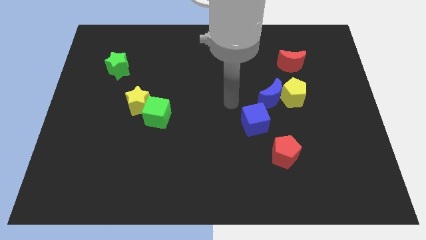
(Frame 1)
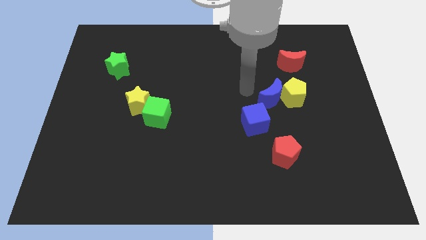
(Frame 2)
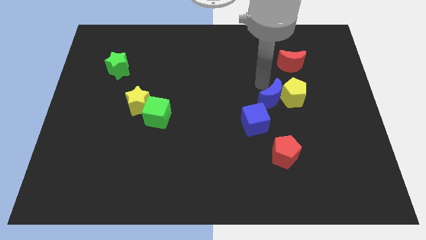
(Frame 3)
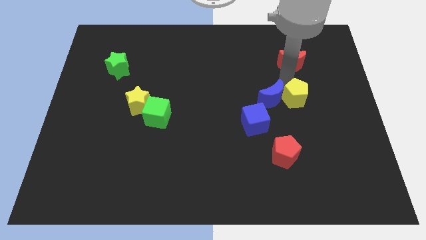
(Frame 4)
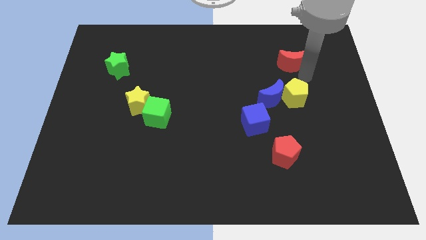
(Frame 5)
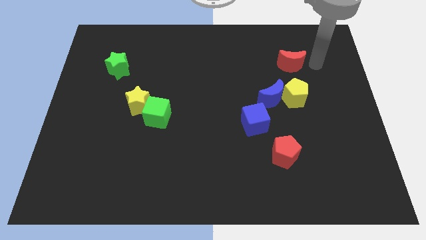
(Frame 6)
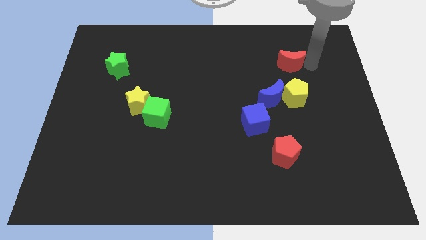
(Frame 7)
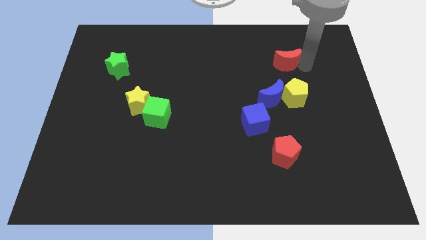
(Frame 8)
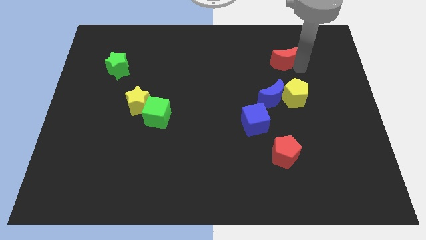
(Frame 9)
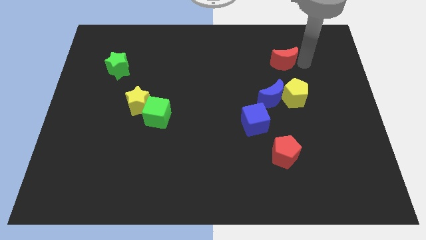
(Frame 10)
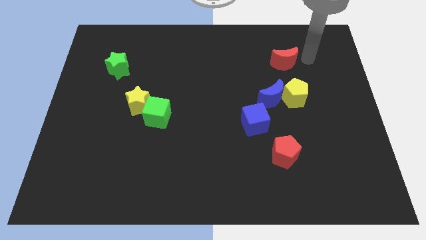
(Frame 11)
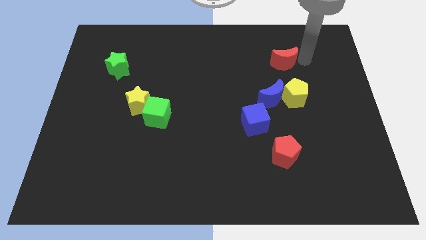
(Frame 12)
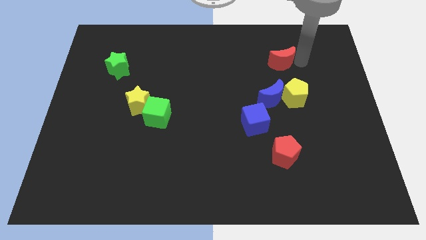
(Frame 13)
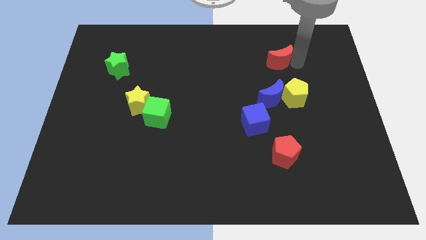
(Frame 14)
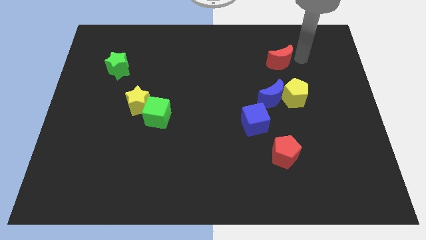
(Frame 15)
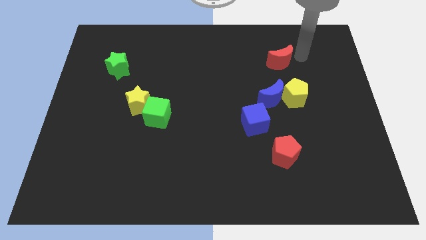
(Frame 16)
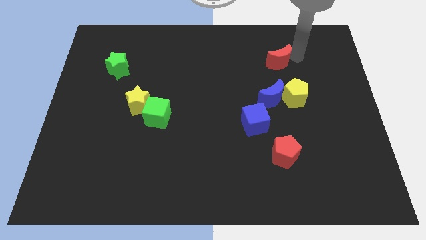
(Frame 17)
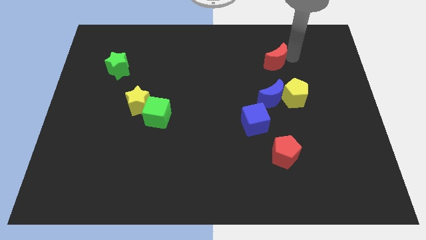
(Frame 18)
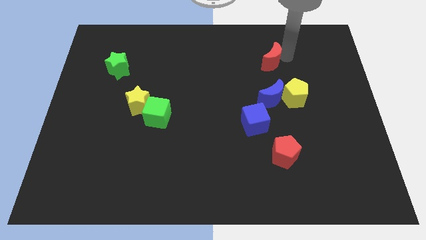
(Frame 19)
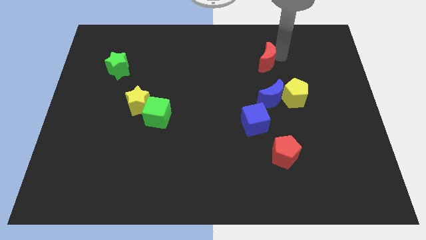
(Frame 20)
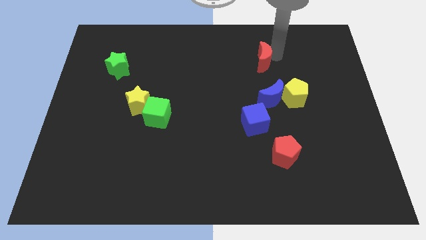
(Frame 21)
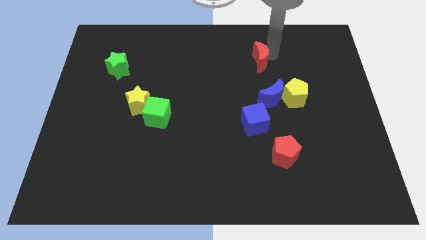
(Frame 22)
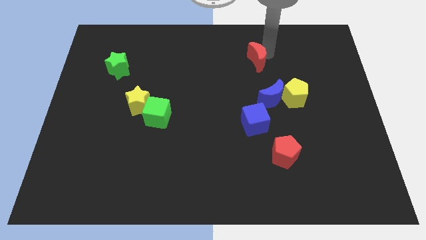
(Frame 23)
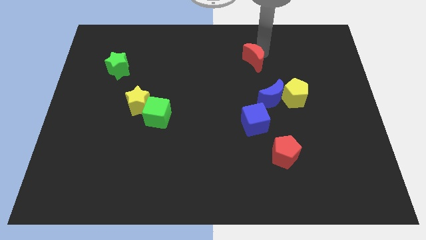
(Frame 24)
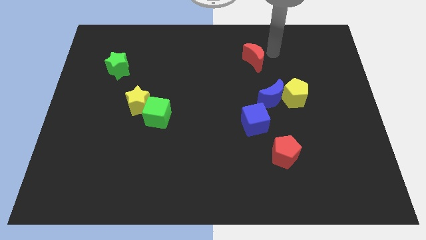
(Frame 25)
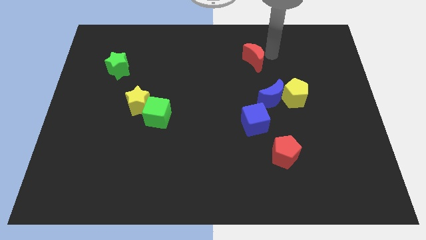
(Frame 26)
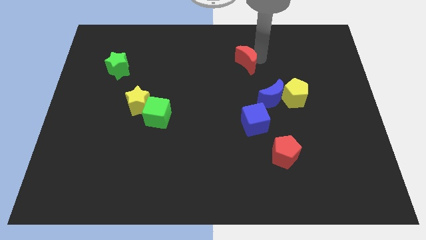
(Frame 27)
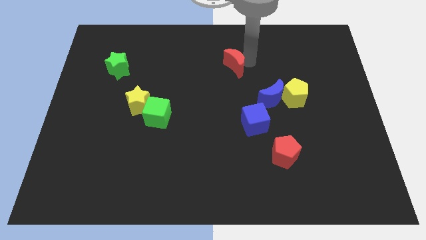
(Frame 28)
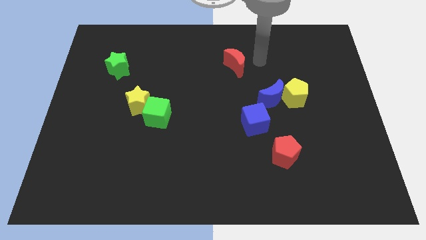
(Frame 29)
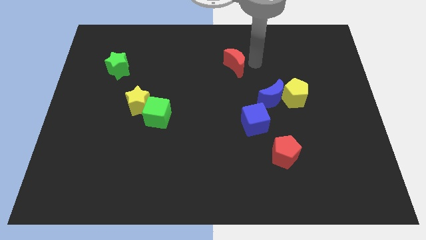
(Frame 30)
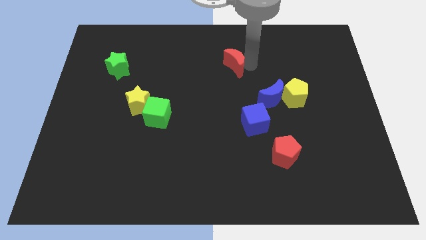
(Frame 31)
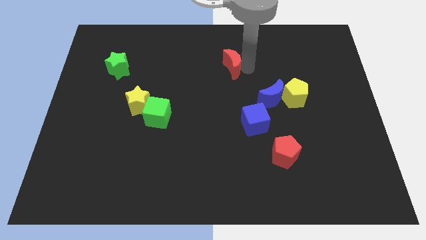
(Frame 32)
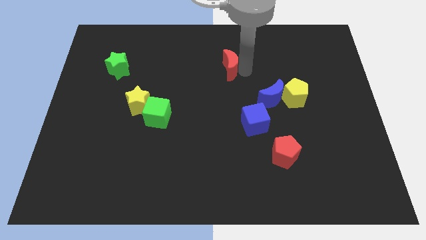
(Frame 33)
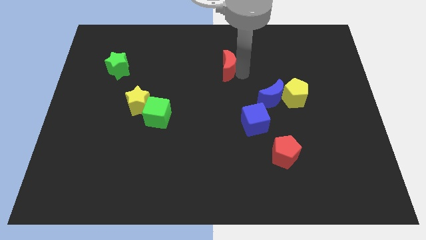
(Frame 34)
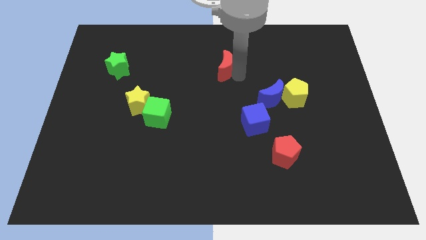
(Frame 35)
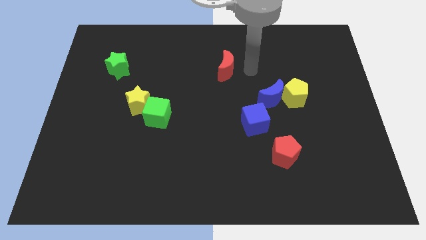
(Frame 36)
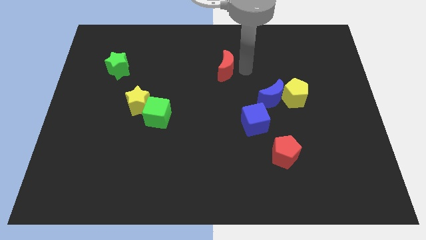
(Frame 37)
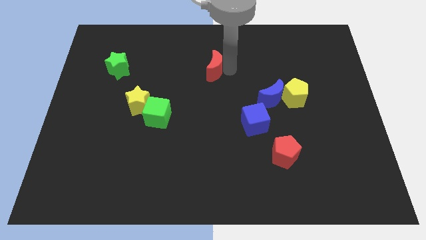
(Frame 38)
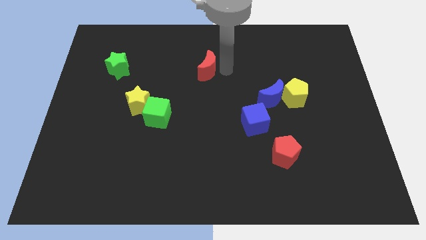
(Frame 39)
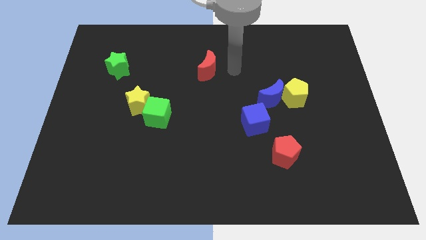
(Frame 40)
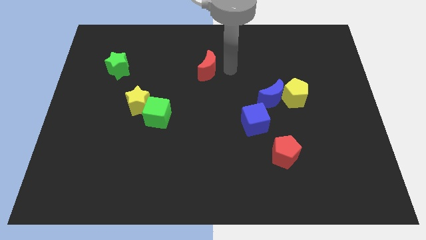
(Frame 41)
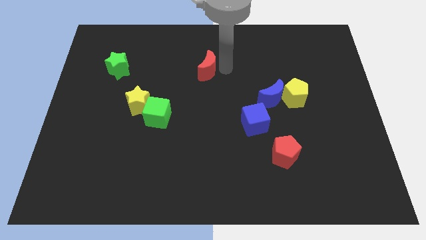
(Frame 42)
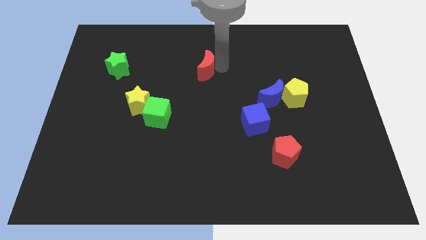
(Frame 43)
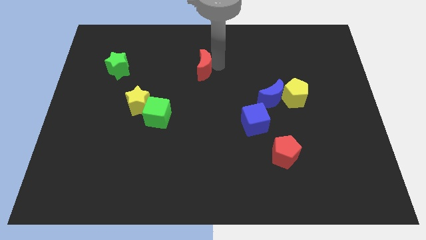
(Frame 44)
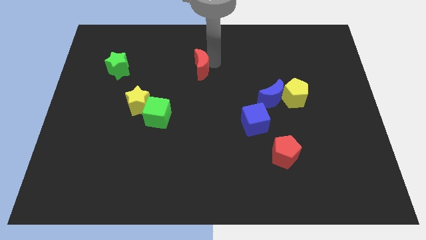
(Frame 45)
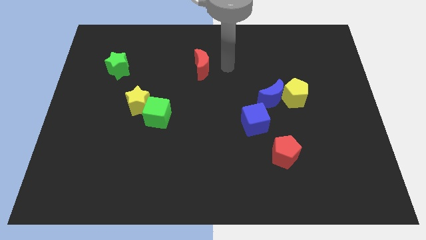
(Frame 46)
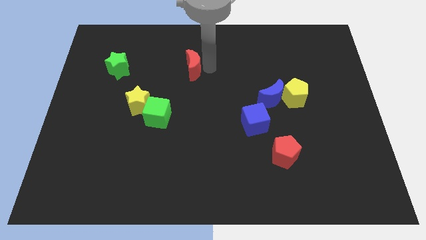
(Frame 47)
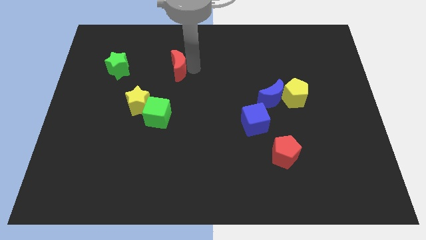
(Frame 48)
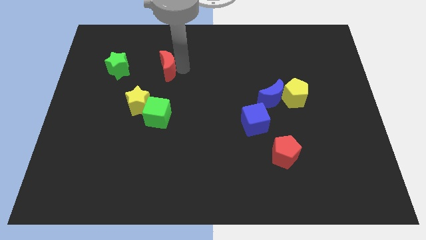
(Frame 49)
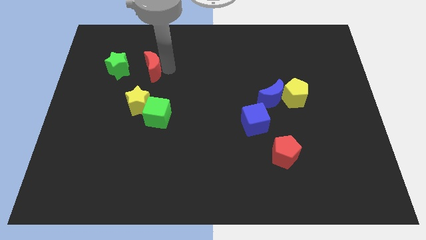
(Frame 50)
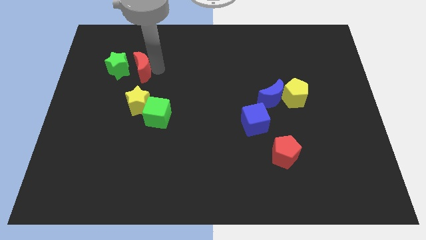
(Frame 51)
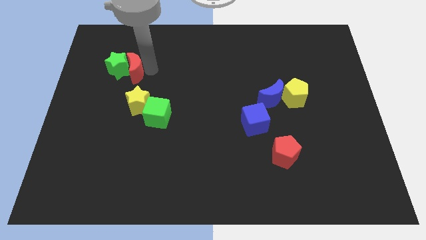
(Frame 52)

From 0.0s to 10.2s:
put the red moon to the green star

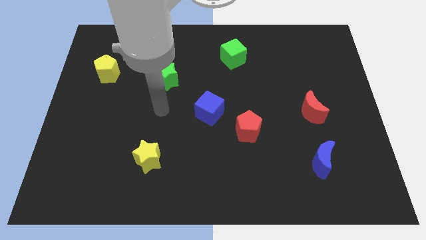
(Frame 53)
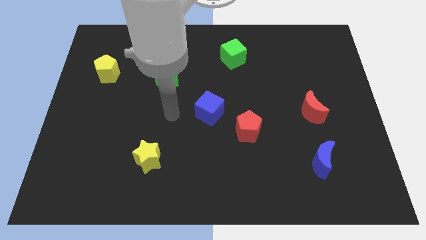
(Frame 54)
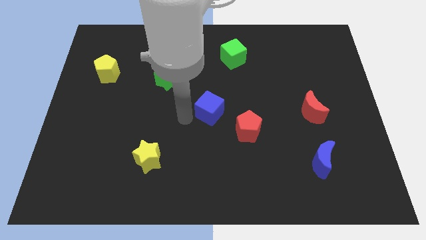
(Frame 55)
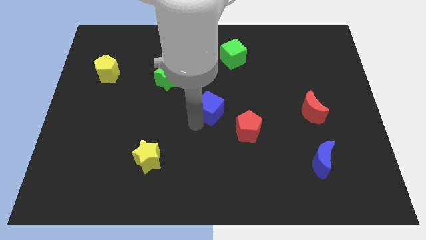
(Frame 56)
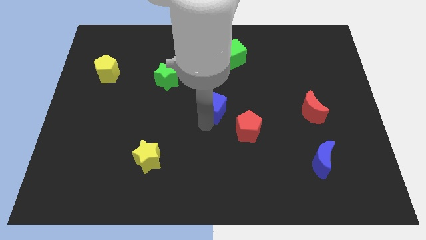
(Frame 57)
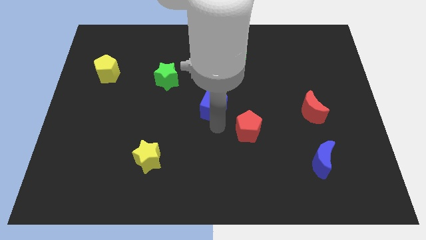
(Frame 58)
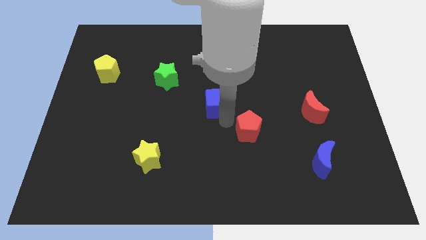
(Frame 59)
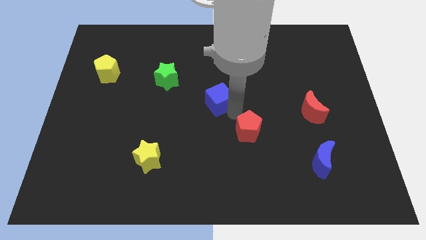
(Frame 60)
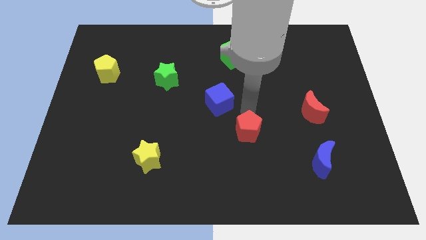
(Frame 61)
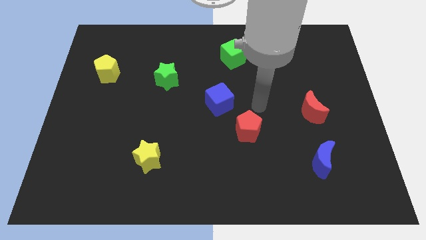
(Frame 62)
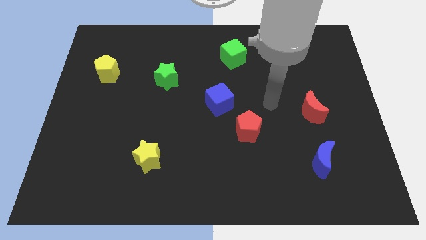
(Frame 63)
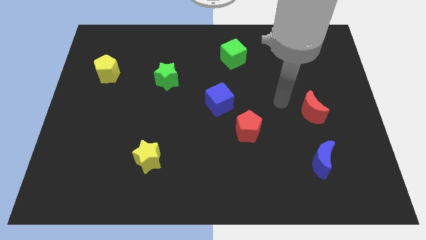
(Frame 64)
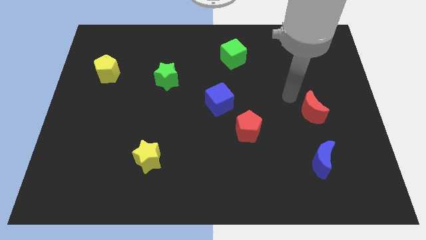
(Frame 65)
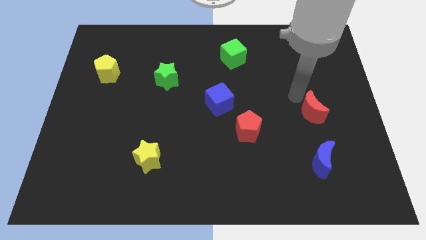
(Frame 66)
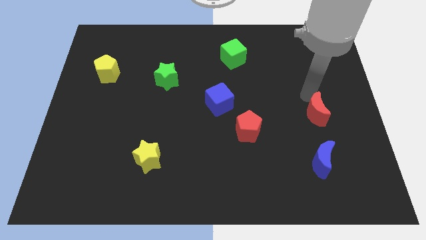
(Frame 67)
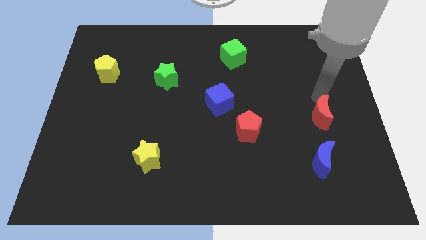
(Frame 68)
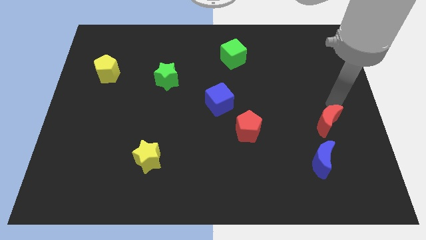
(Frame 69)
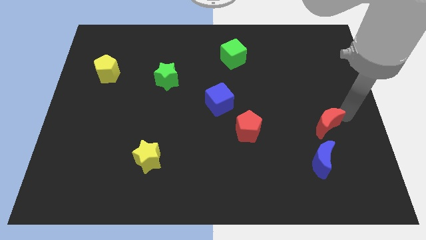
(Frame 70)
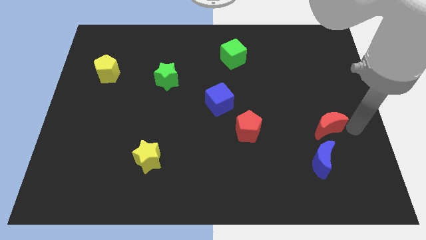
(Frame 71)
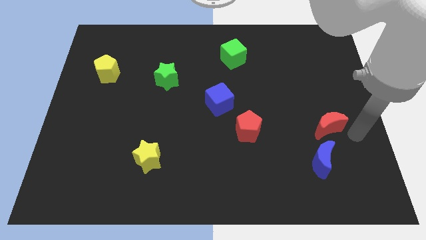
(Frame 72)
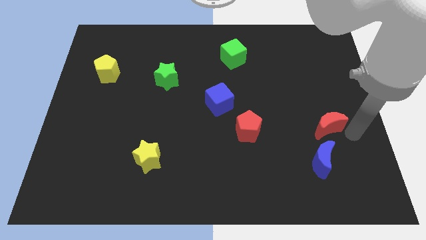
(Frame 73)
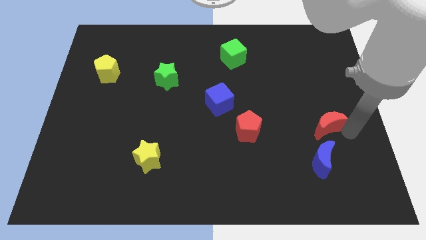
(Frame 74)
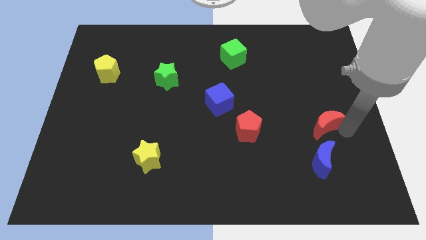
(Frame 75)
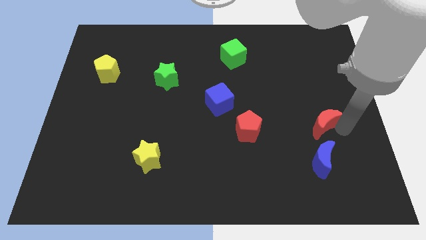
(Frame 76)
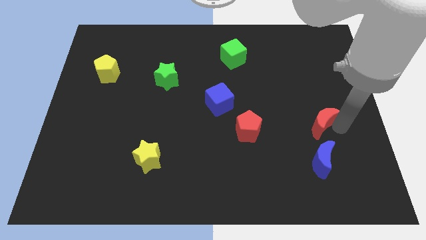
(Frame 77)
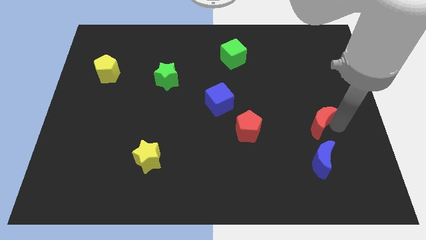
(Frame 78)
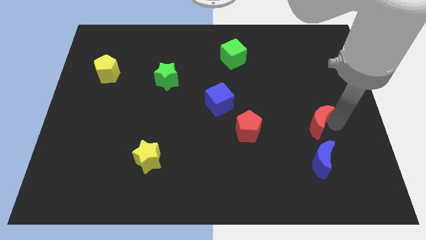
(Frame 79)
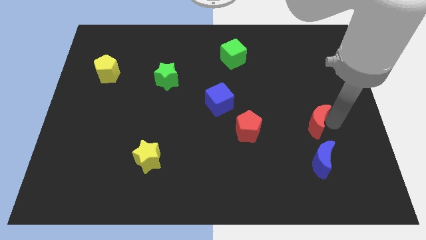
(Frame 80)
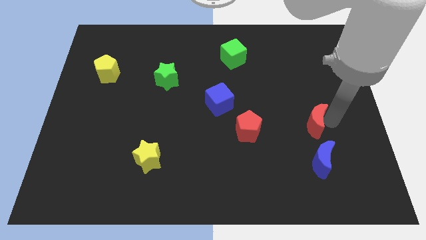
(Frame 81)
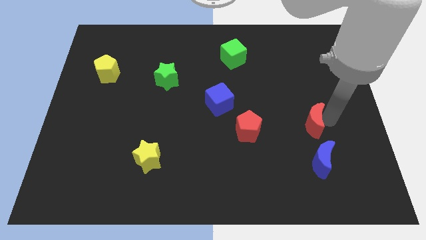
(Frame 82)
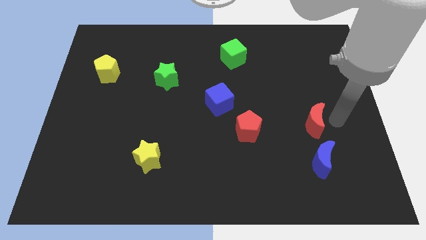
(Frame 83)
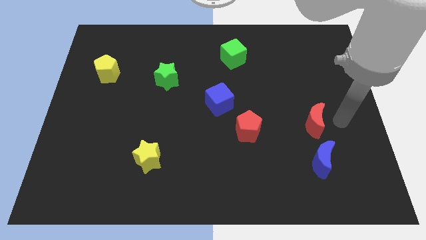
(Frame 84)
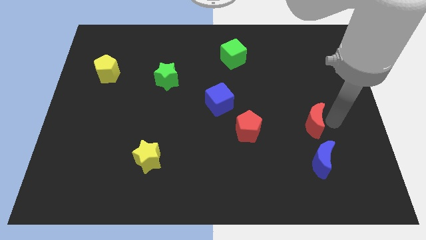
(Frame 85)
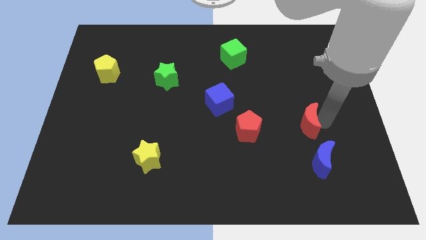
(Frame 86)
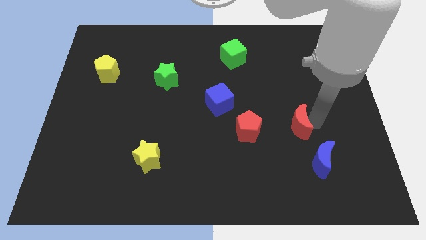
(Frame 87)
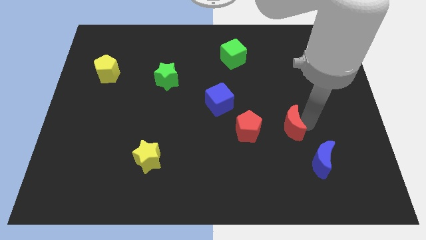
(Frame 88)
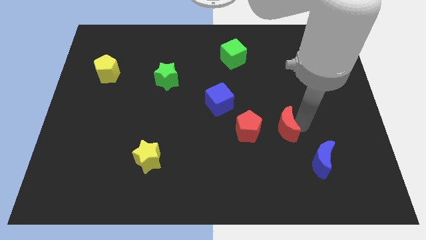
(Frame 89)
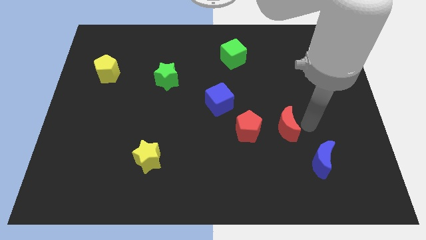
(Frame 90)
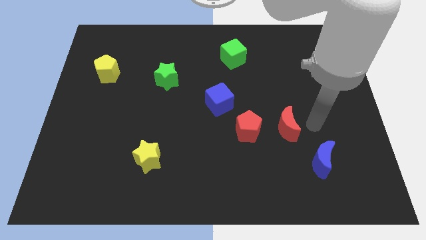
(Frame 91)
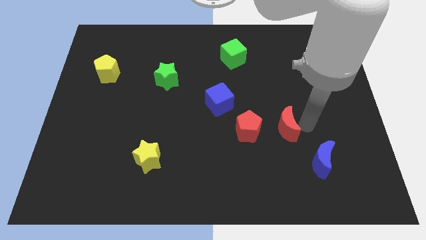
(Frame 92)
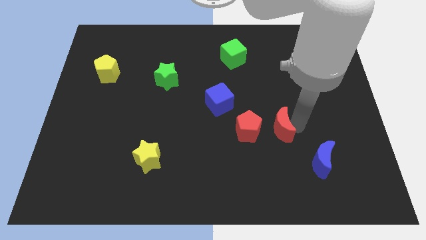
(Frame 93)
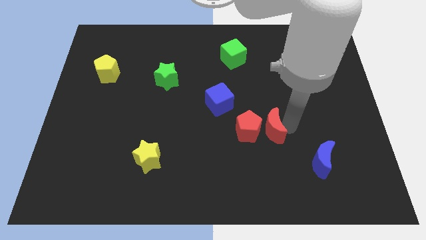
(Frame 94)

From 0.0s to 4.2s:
move the red moon towards the red pentagon
